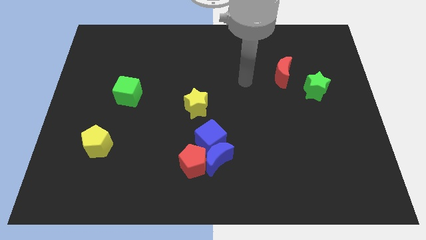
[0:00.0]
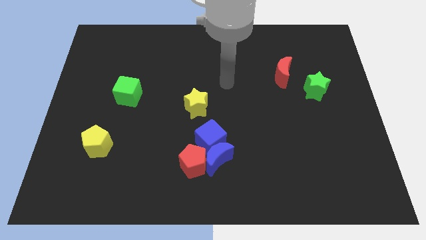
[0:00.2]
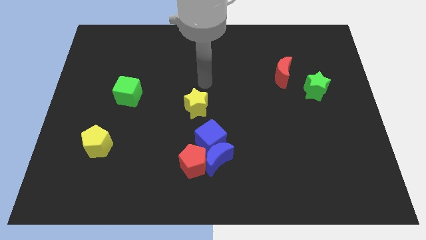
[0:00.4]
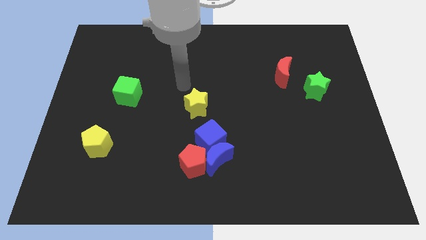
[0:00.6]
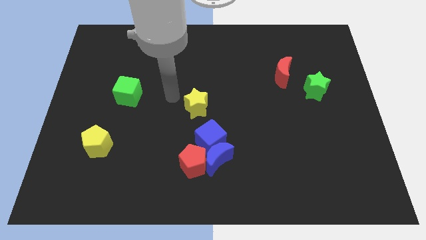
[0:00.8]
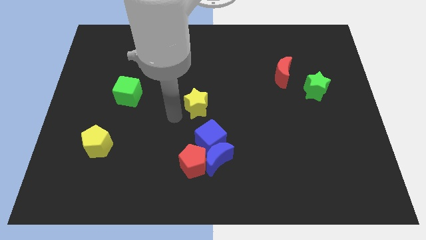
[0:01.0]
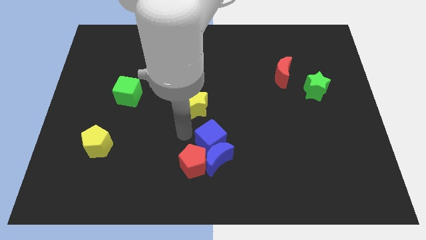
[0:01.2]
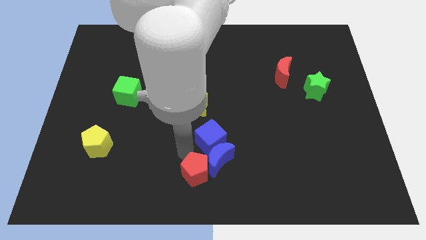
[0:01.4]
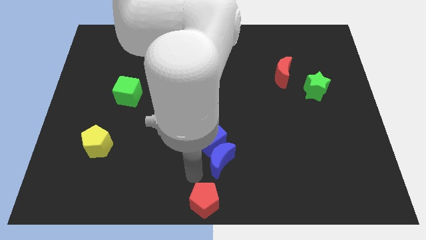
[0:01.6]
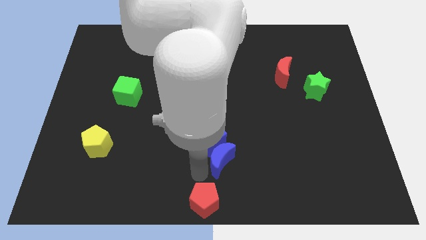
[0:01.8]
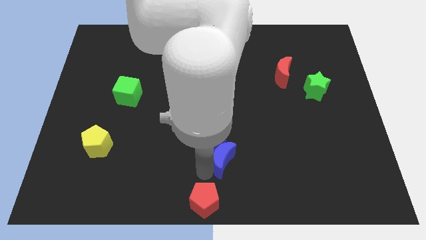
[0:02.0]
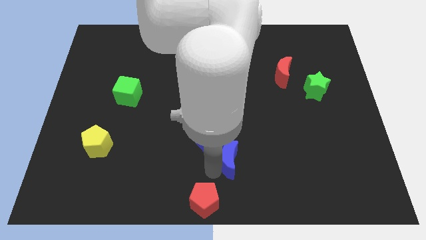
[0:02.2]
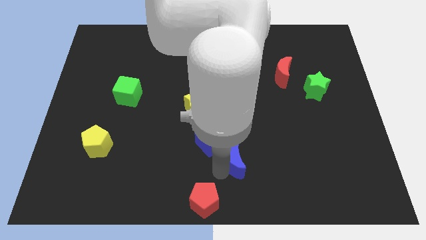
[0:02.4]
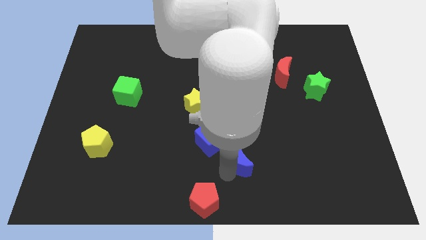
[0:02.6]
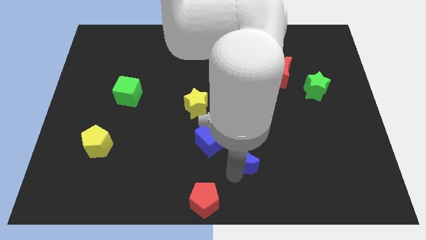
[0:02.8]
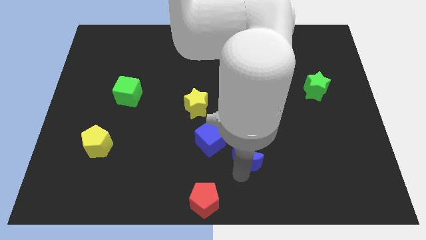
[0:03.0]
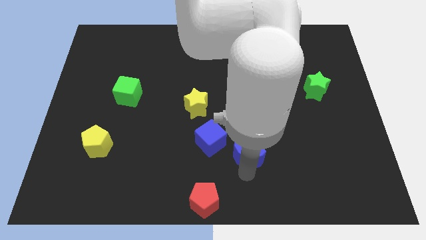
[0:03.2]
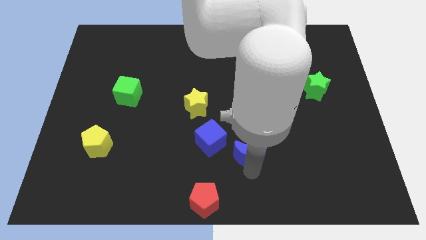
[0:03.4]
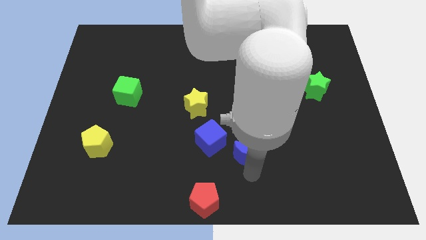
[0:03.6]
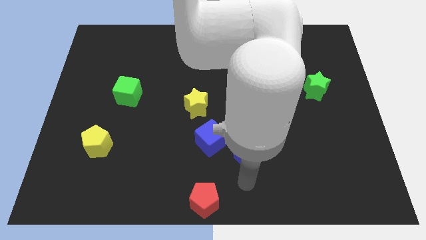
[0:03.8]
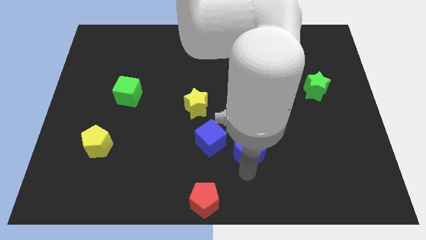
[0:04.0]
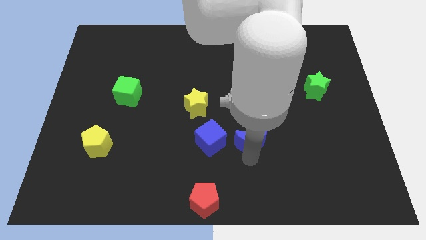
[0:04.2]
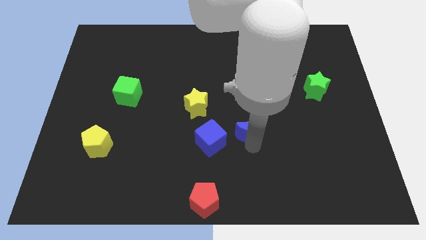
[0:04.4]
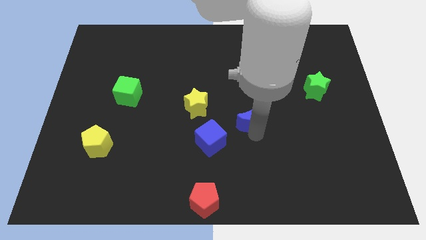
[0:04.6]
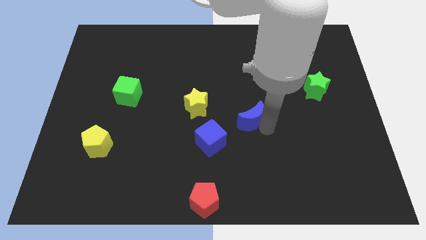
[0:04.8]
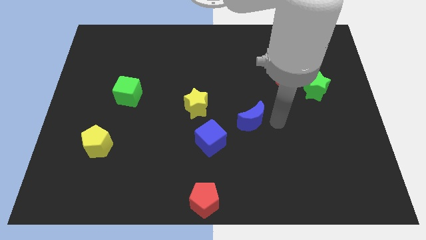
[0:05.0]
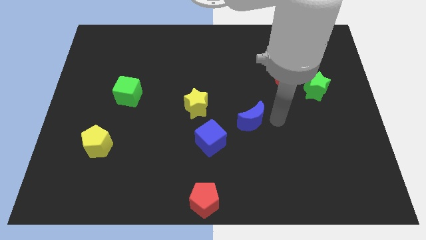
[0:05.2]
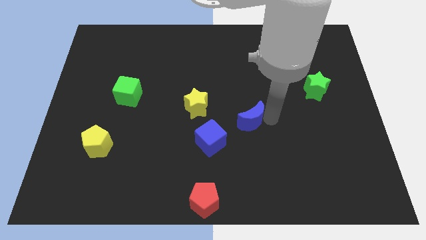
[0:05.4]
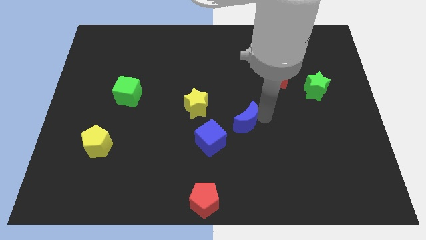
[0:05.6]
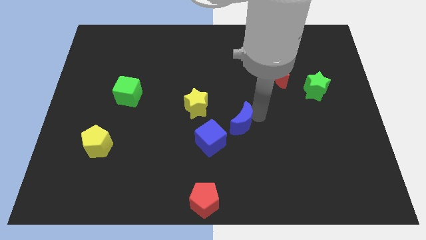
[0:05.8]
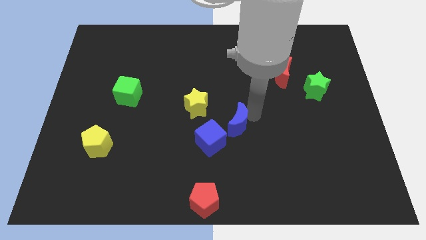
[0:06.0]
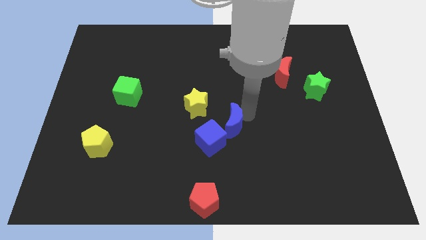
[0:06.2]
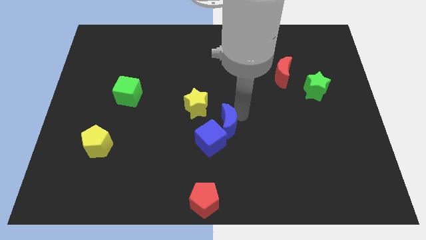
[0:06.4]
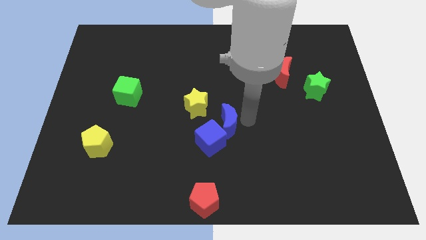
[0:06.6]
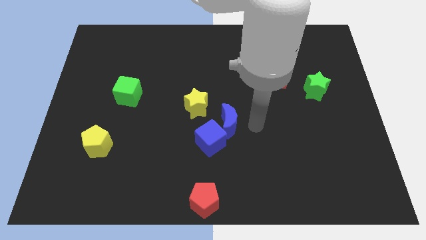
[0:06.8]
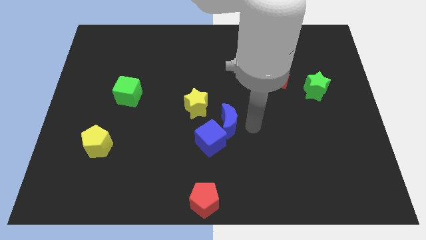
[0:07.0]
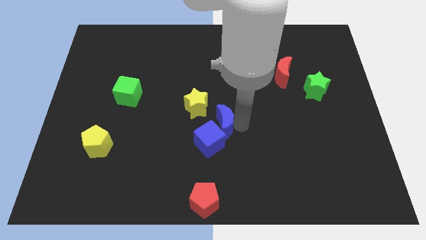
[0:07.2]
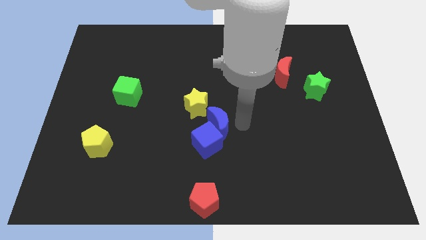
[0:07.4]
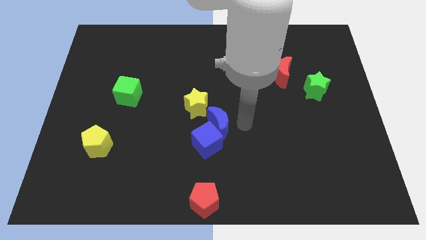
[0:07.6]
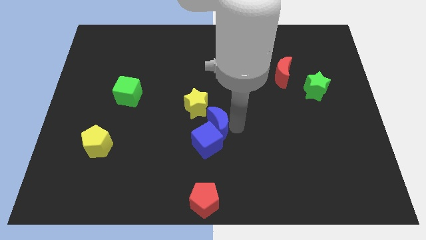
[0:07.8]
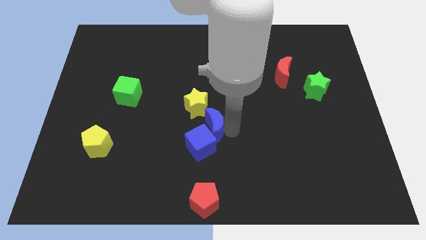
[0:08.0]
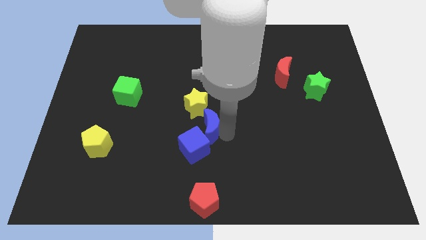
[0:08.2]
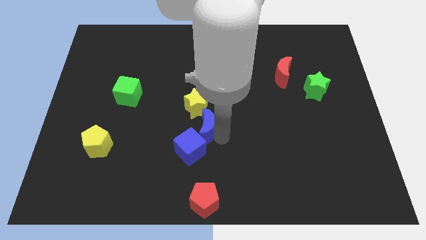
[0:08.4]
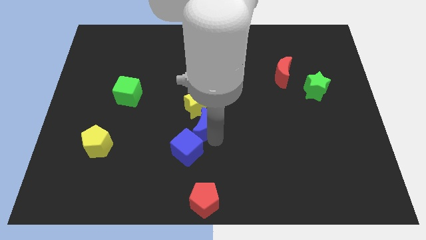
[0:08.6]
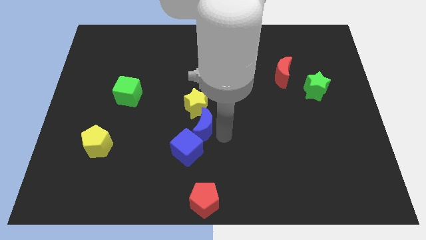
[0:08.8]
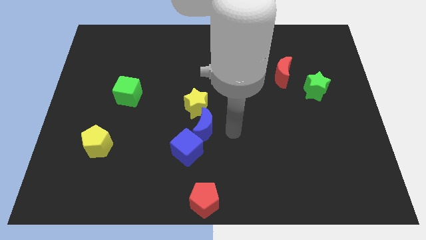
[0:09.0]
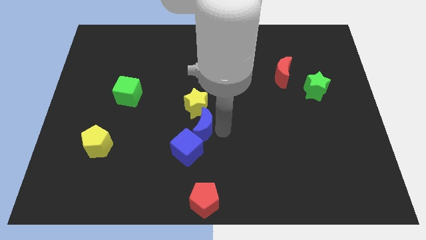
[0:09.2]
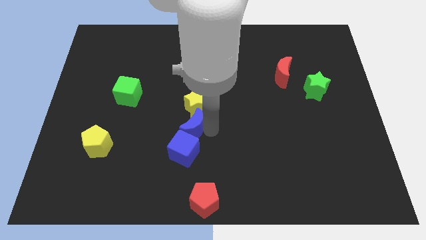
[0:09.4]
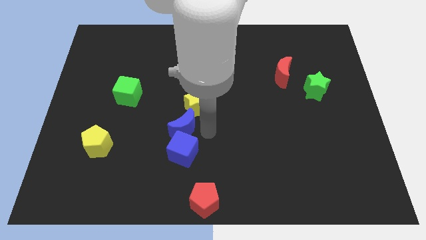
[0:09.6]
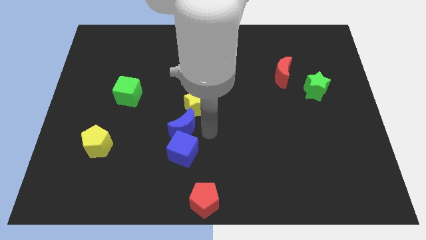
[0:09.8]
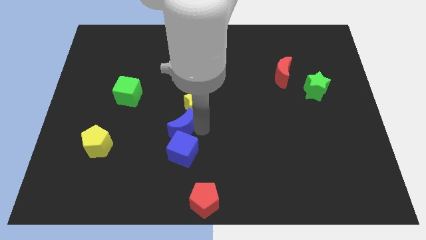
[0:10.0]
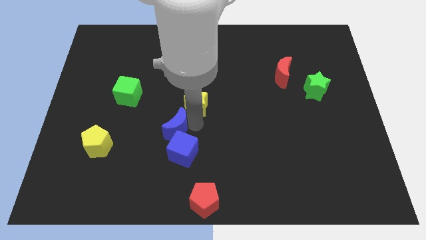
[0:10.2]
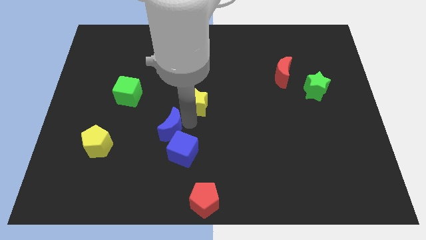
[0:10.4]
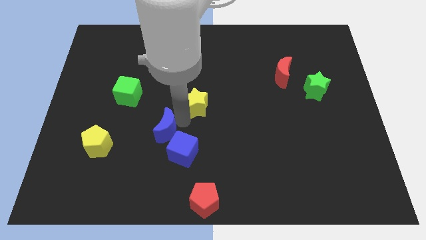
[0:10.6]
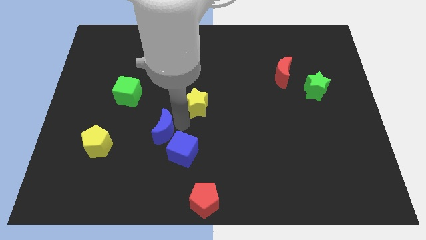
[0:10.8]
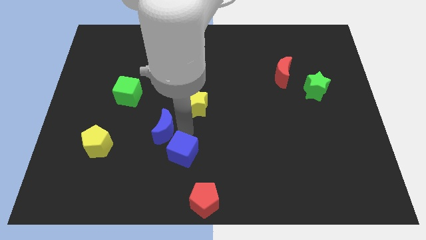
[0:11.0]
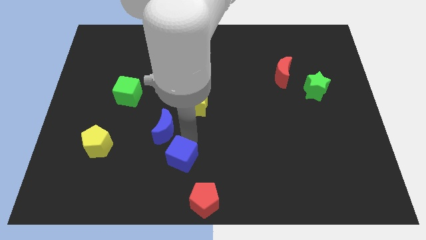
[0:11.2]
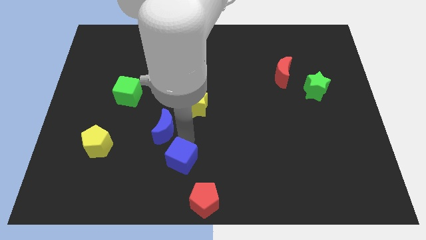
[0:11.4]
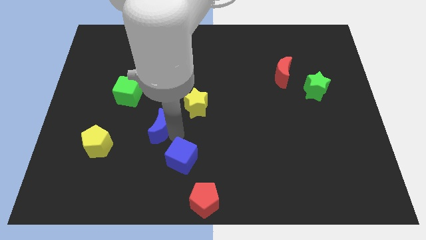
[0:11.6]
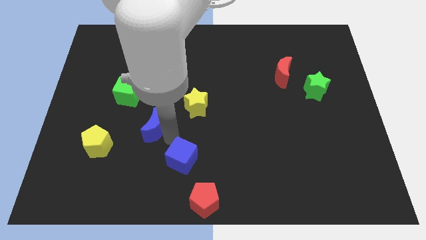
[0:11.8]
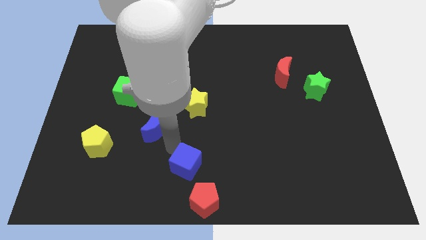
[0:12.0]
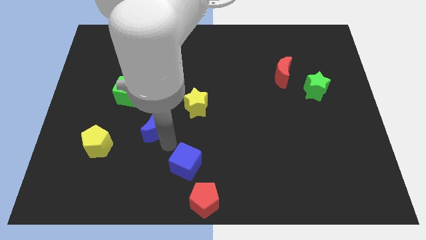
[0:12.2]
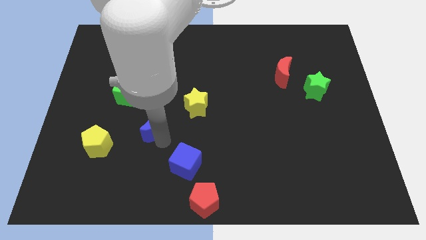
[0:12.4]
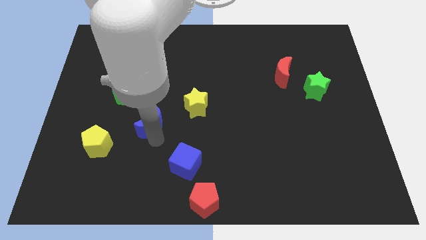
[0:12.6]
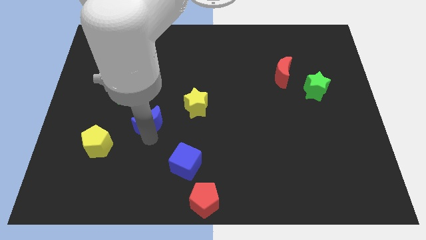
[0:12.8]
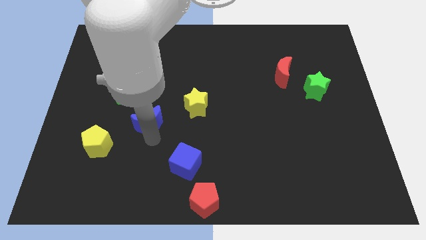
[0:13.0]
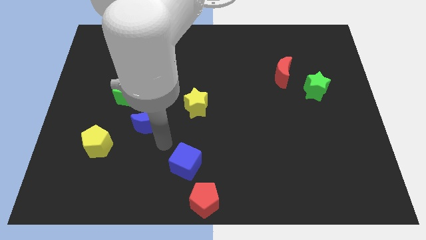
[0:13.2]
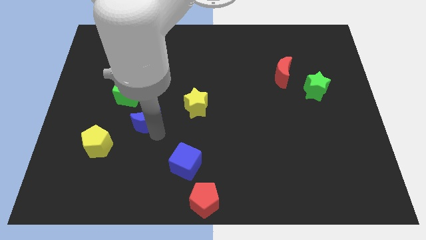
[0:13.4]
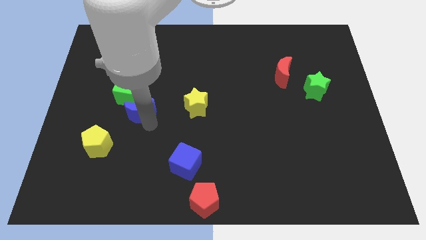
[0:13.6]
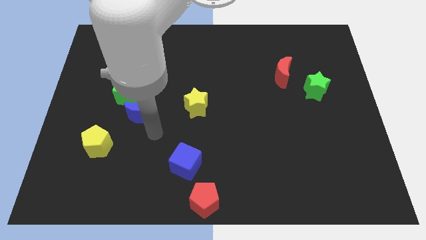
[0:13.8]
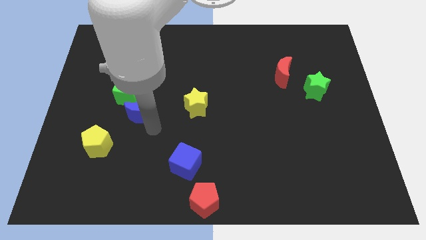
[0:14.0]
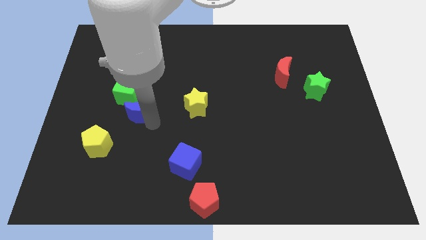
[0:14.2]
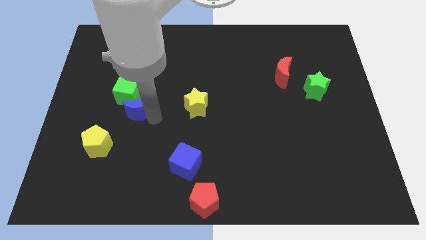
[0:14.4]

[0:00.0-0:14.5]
put the blue moon towards the green cube
